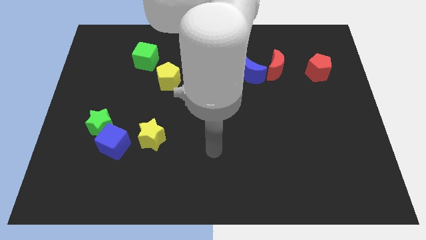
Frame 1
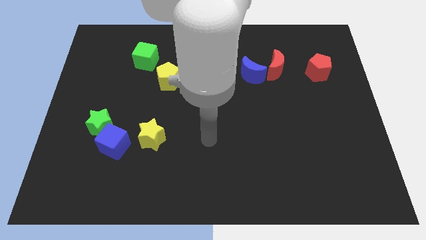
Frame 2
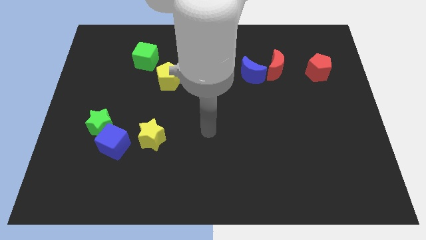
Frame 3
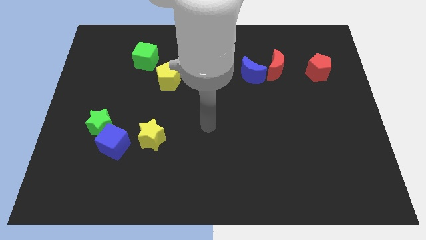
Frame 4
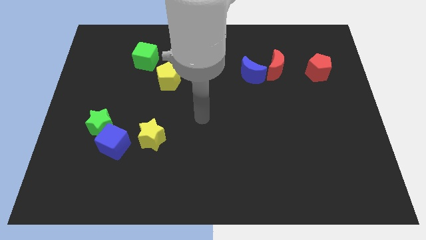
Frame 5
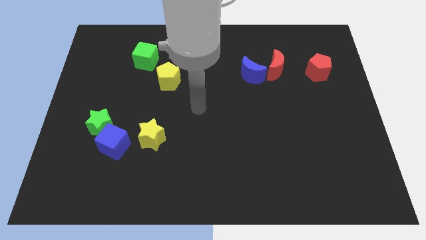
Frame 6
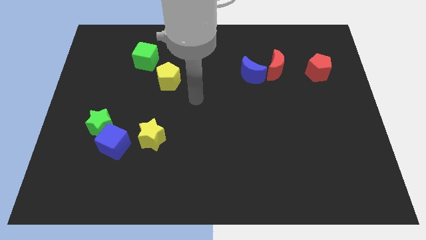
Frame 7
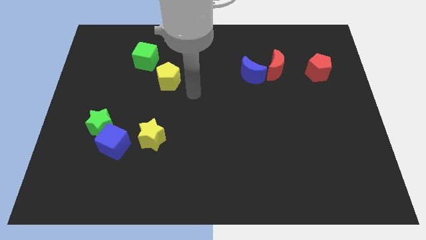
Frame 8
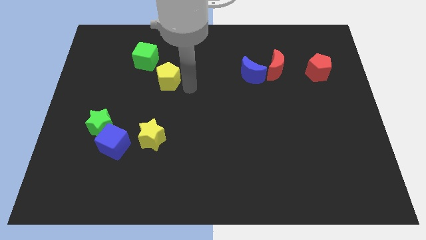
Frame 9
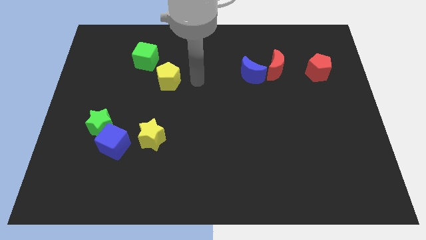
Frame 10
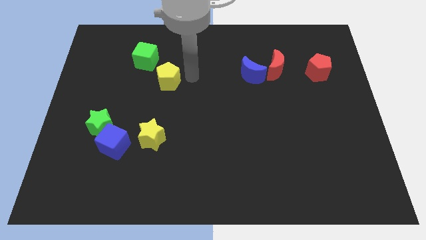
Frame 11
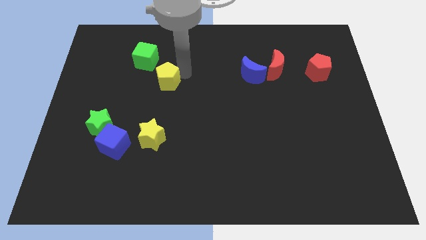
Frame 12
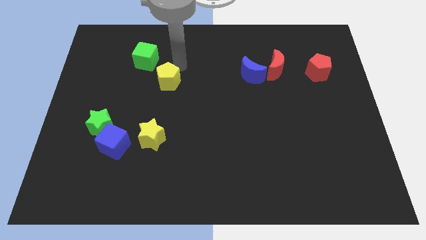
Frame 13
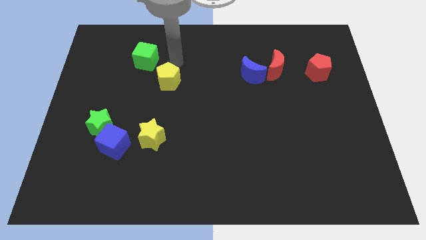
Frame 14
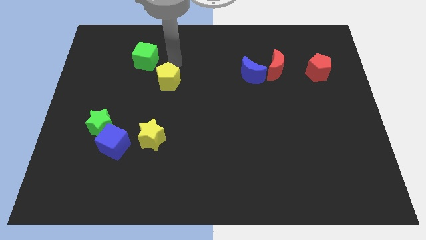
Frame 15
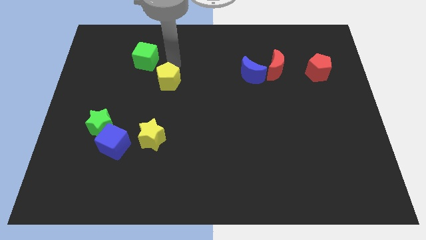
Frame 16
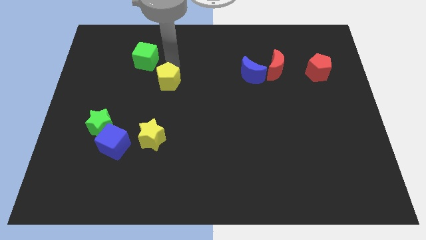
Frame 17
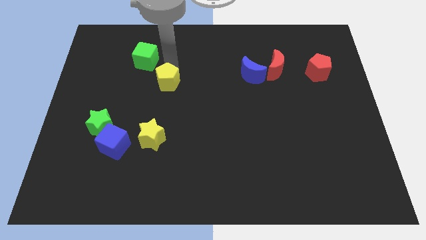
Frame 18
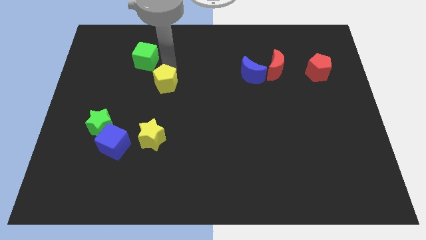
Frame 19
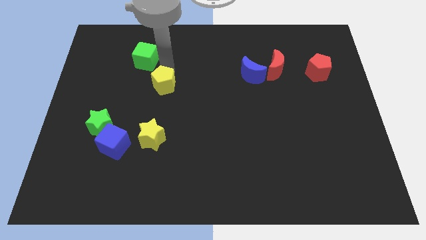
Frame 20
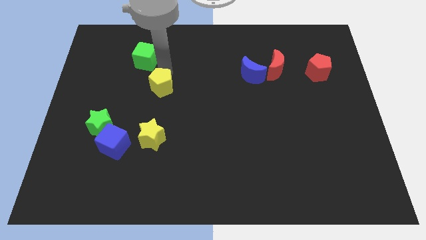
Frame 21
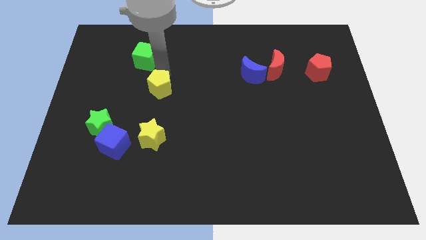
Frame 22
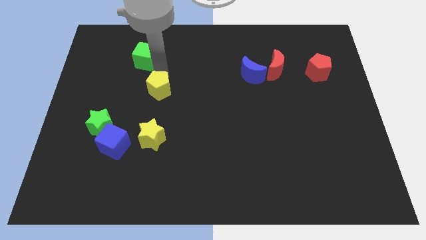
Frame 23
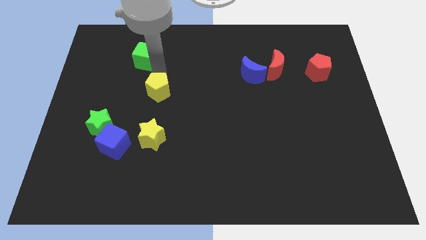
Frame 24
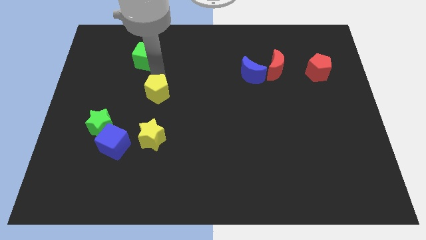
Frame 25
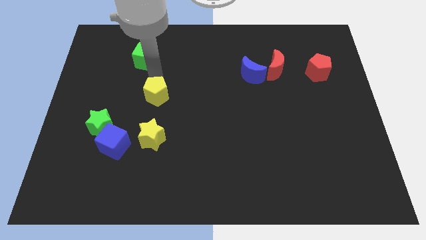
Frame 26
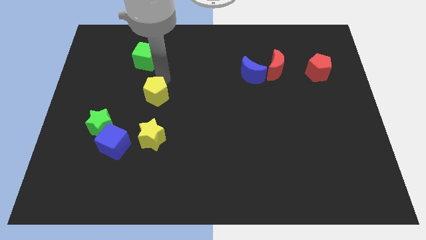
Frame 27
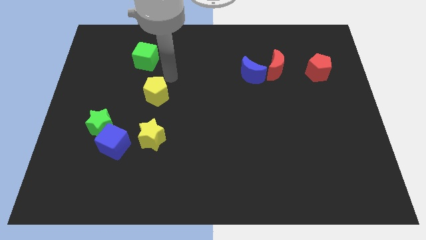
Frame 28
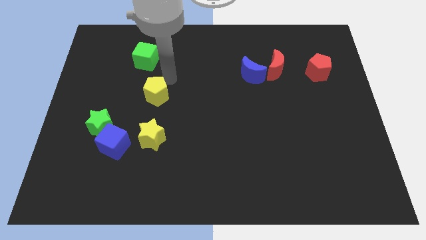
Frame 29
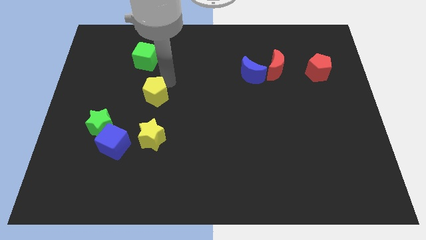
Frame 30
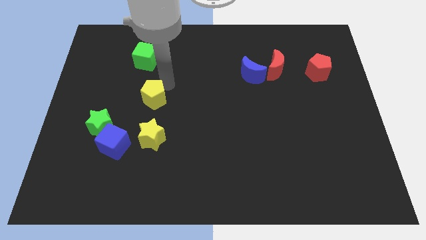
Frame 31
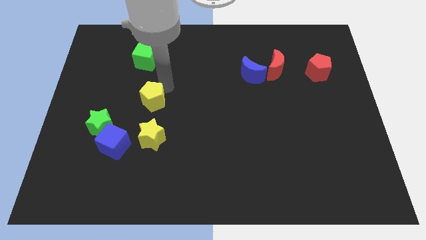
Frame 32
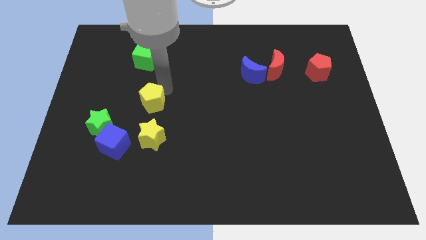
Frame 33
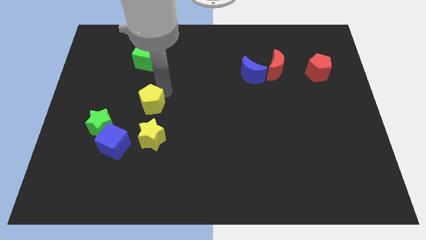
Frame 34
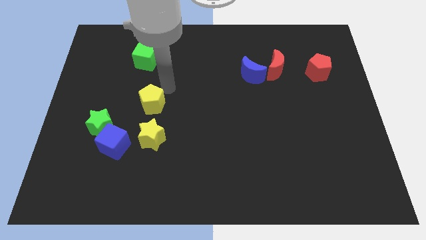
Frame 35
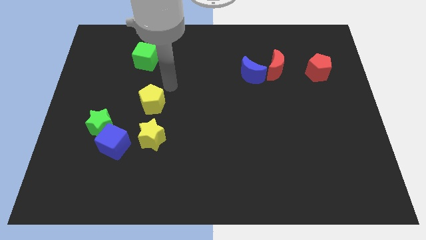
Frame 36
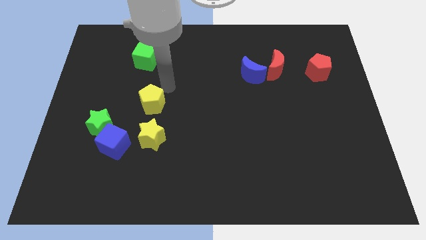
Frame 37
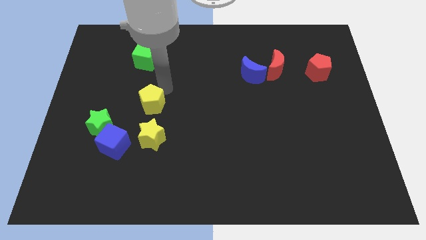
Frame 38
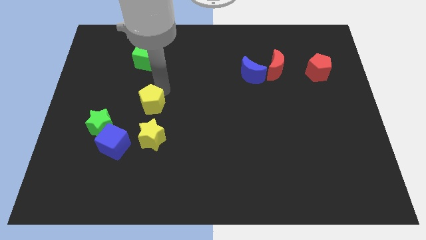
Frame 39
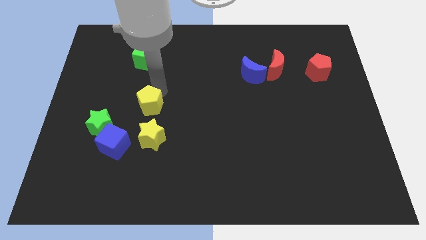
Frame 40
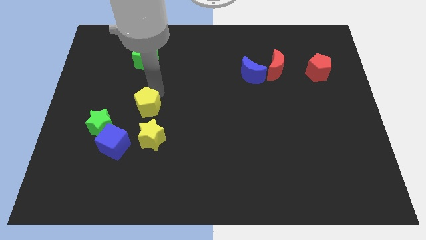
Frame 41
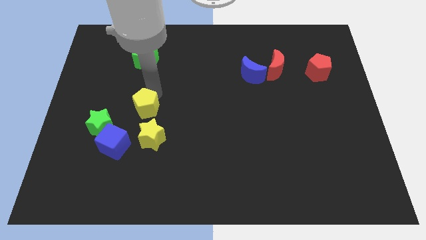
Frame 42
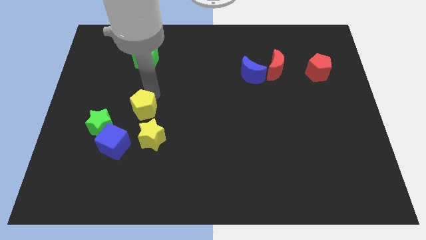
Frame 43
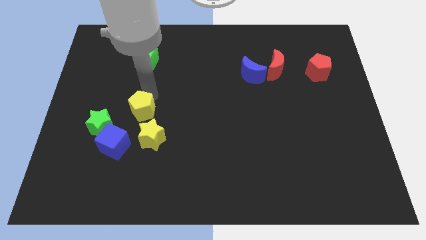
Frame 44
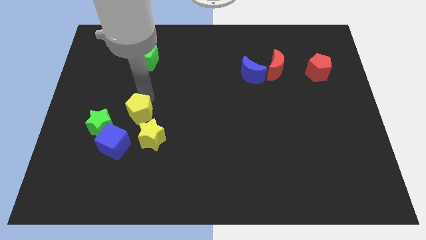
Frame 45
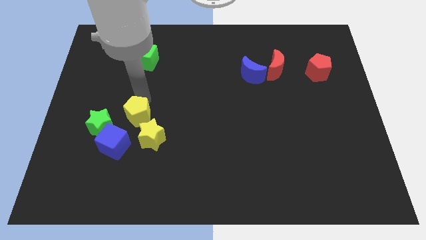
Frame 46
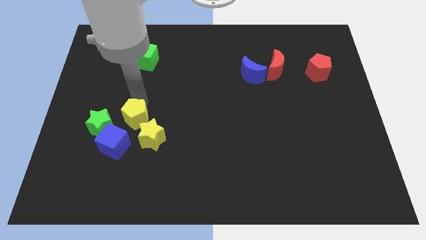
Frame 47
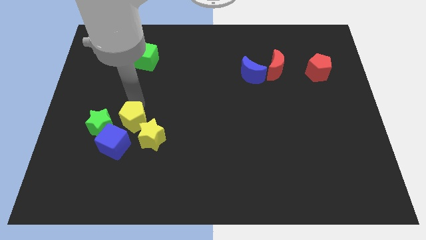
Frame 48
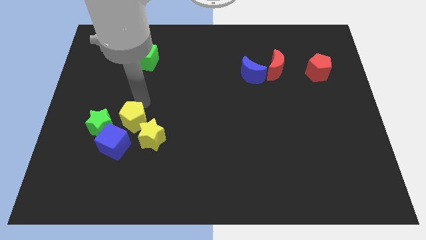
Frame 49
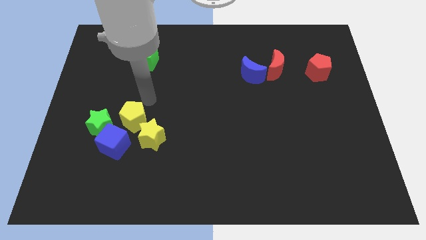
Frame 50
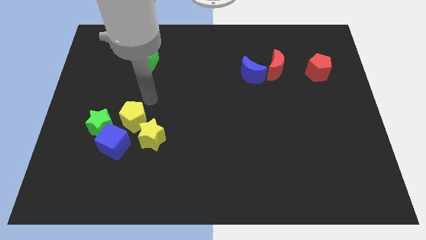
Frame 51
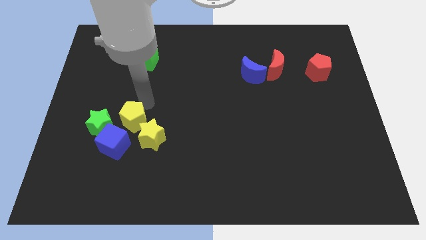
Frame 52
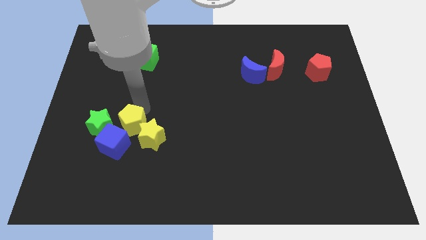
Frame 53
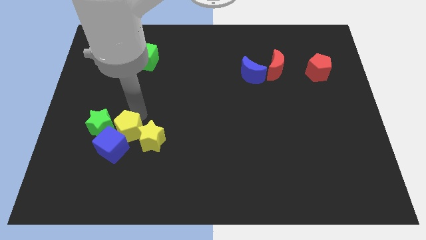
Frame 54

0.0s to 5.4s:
push the yellow pentagon close to the blue cube
